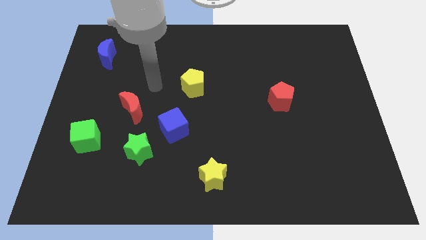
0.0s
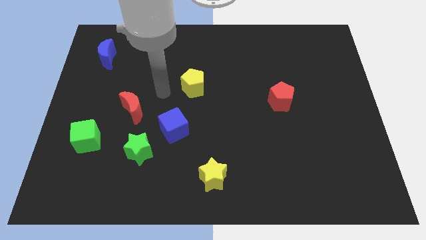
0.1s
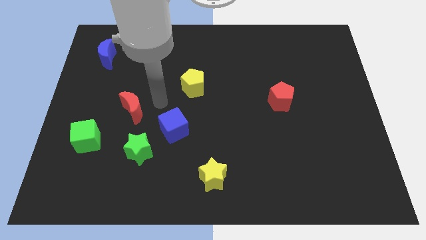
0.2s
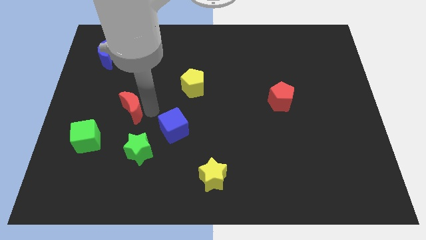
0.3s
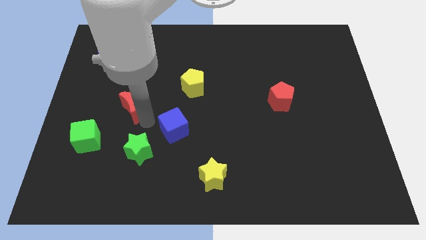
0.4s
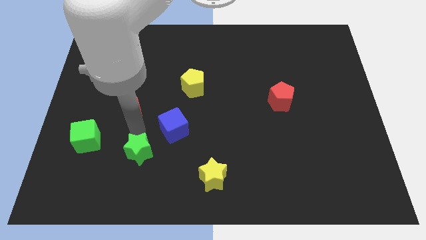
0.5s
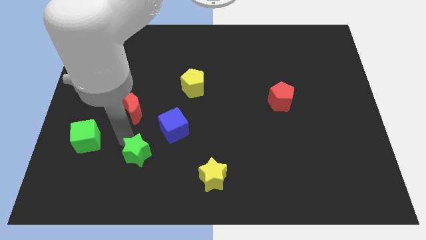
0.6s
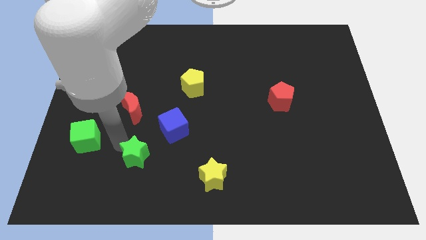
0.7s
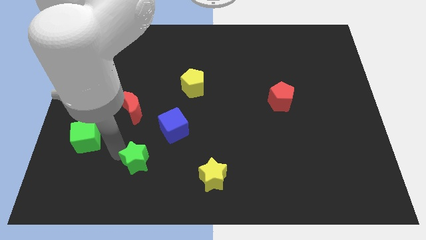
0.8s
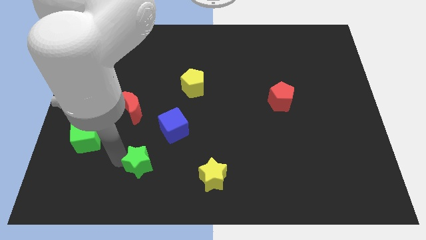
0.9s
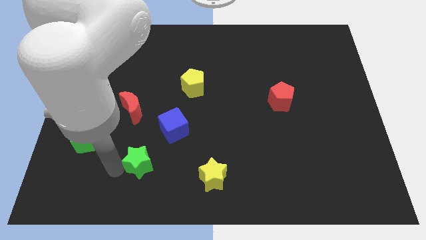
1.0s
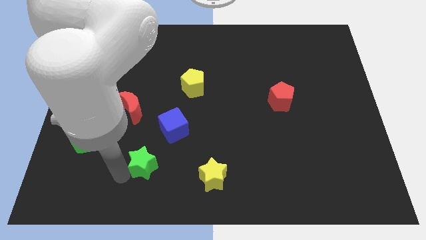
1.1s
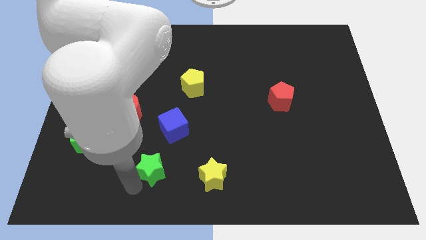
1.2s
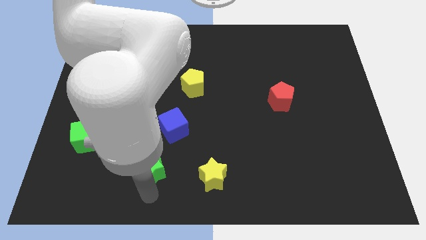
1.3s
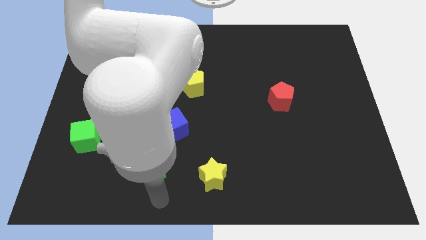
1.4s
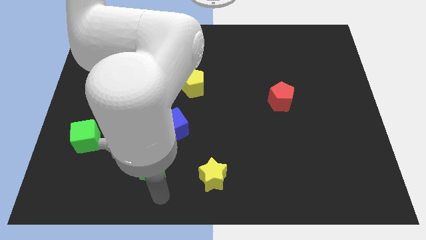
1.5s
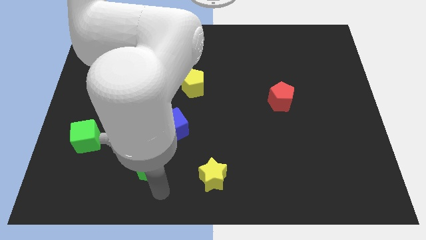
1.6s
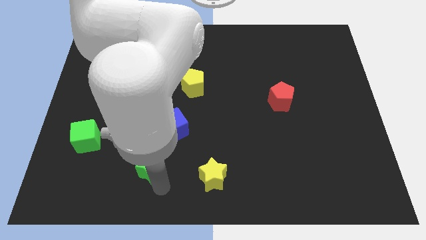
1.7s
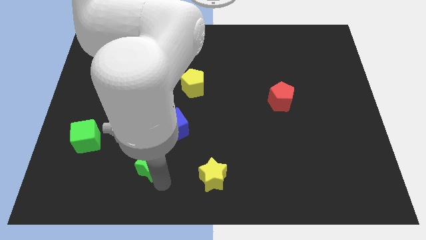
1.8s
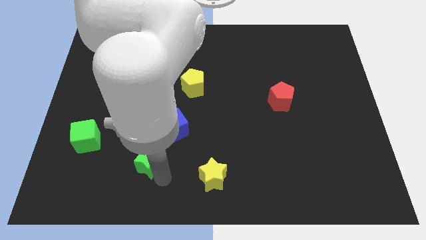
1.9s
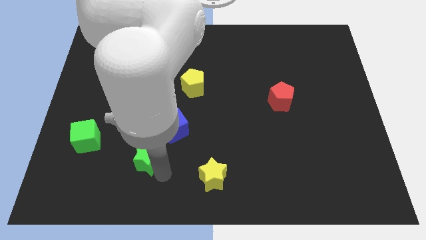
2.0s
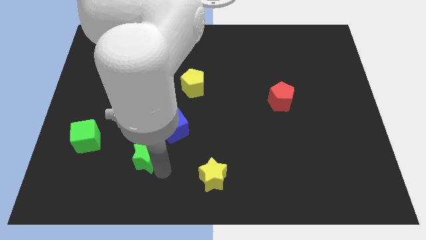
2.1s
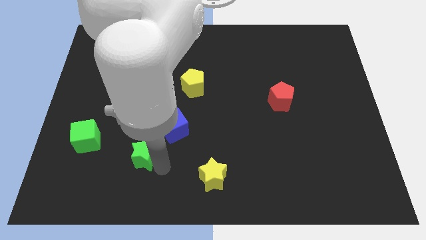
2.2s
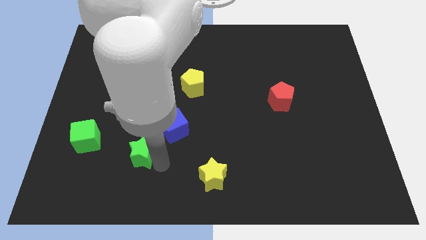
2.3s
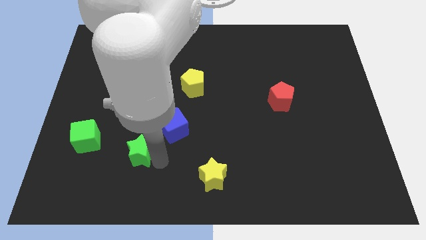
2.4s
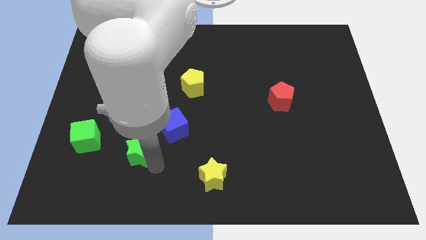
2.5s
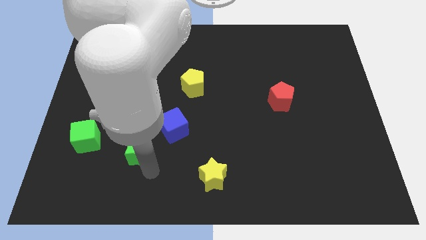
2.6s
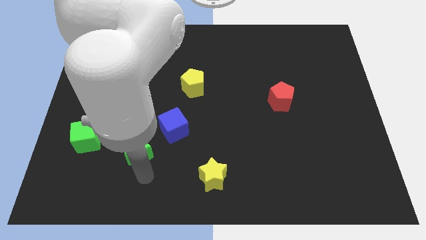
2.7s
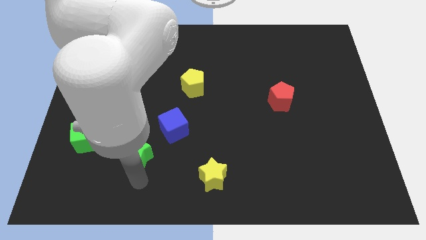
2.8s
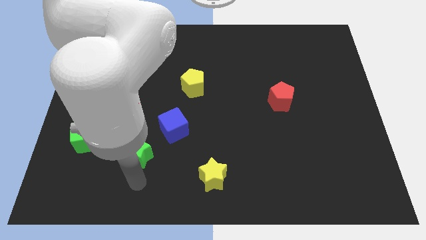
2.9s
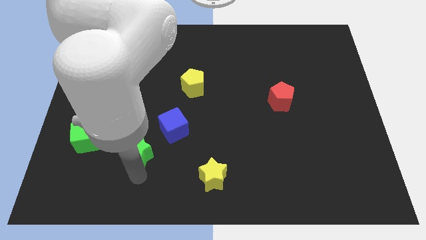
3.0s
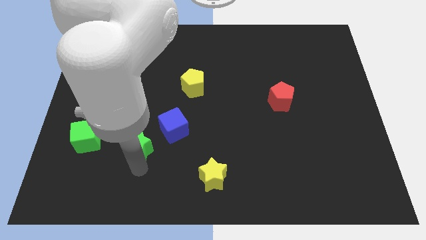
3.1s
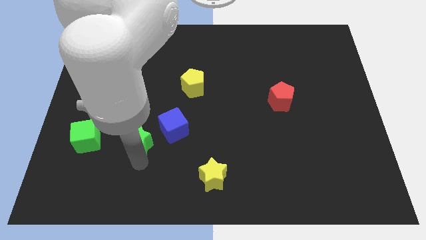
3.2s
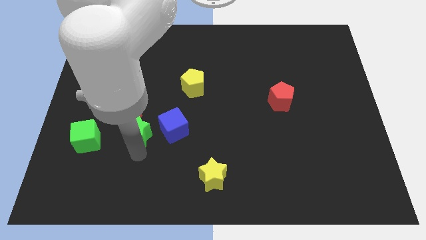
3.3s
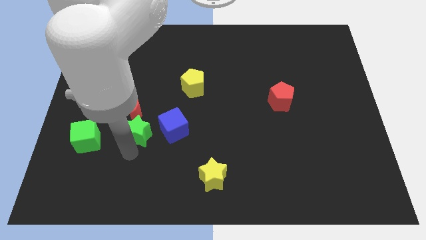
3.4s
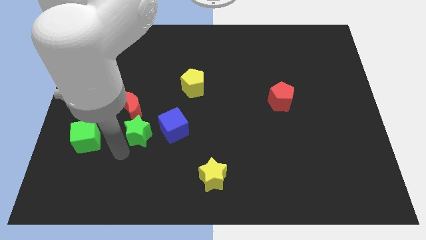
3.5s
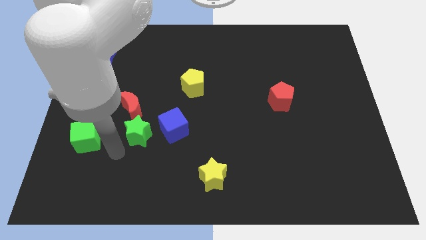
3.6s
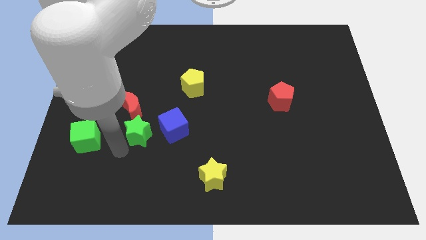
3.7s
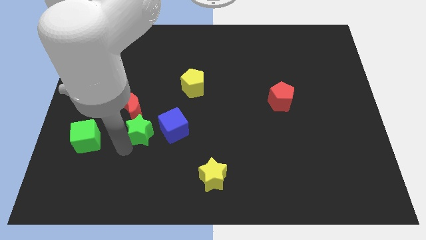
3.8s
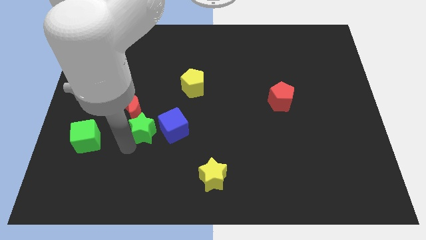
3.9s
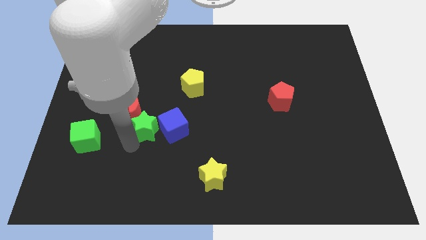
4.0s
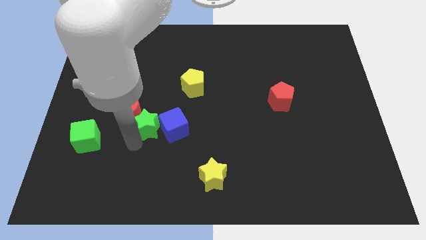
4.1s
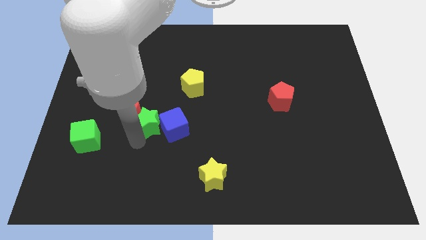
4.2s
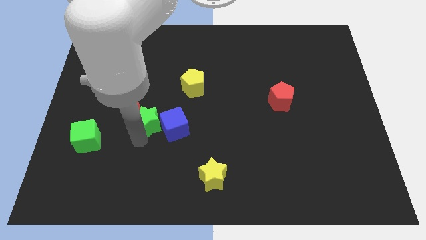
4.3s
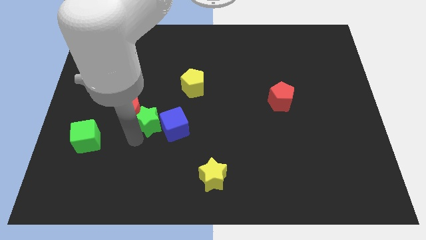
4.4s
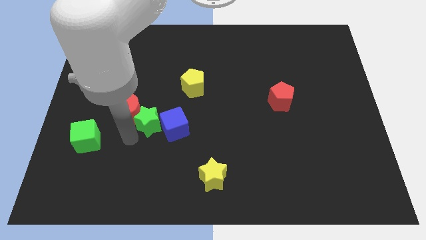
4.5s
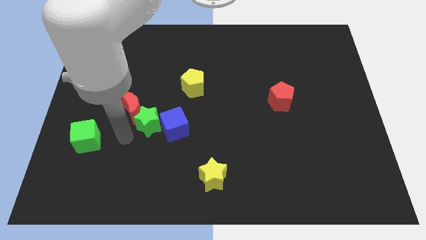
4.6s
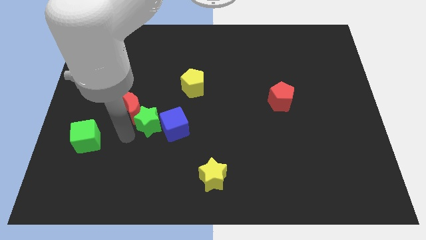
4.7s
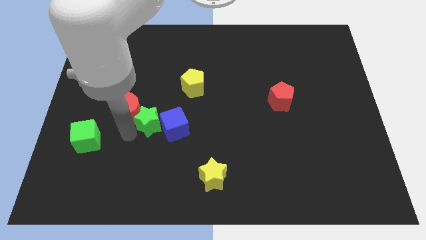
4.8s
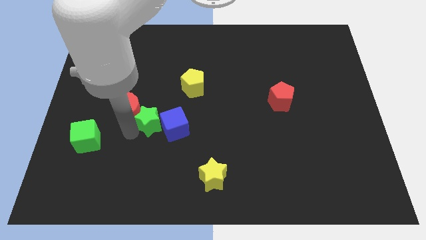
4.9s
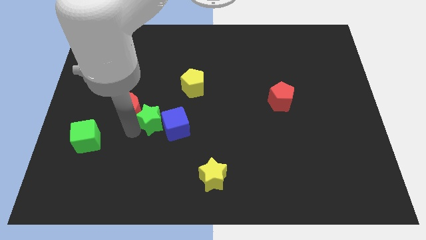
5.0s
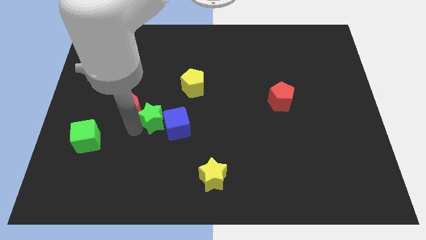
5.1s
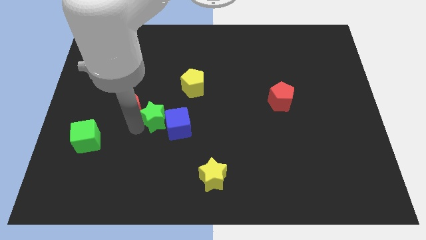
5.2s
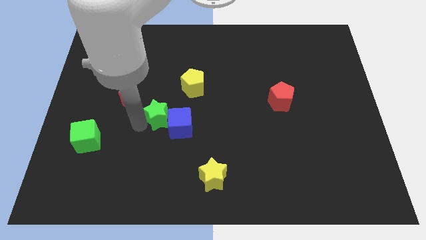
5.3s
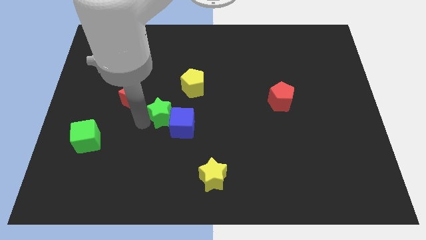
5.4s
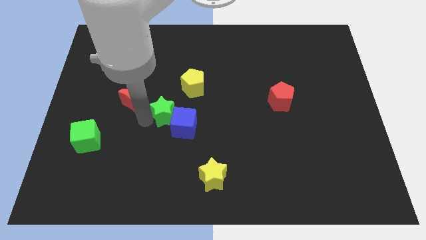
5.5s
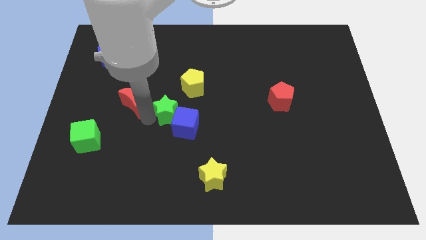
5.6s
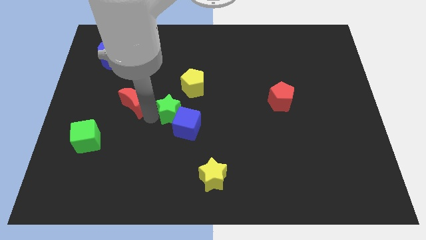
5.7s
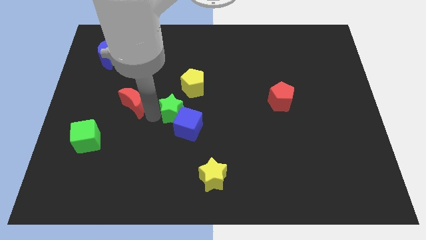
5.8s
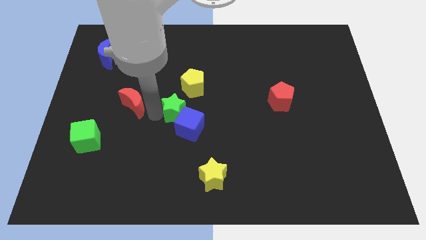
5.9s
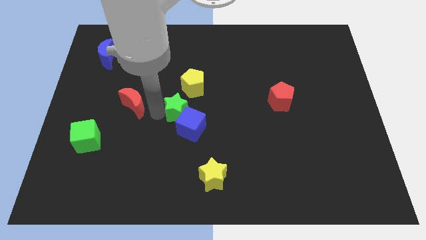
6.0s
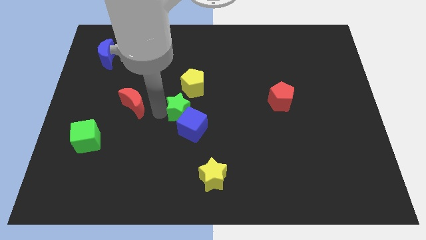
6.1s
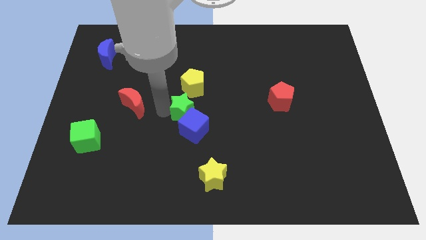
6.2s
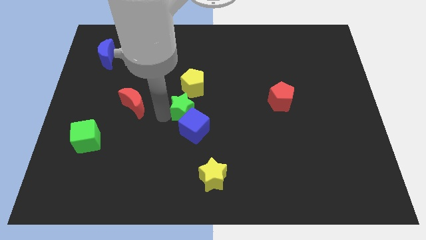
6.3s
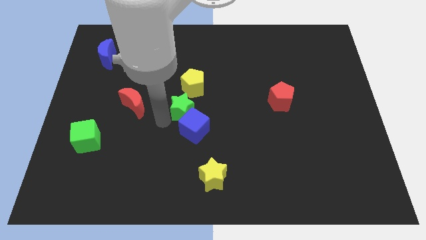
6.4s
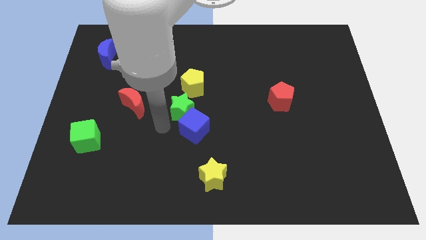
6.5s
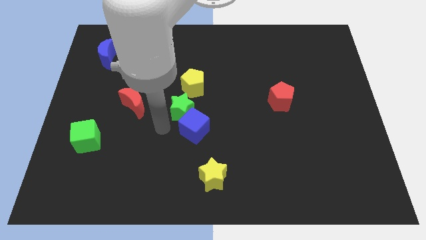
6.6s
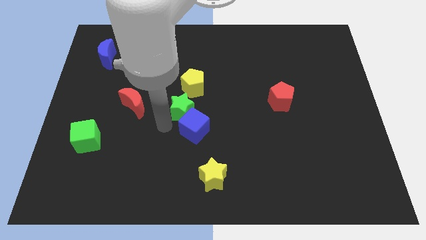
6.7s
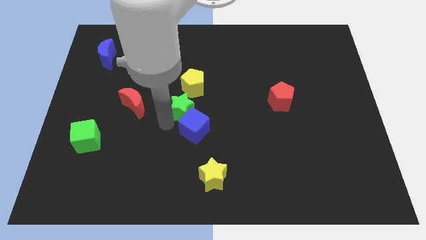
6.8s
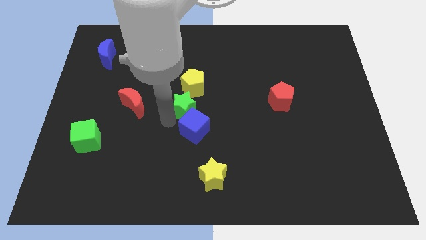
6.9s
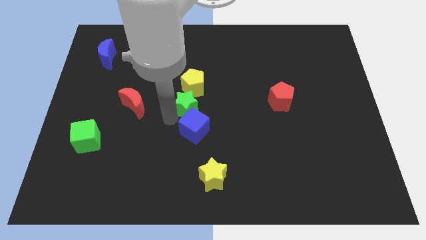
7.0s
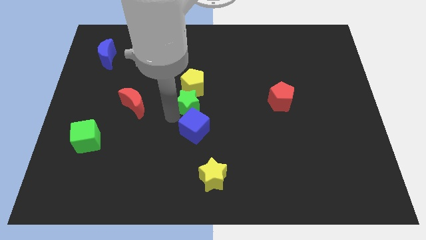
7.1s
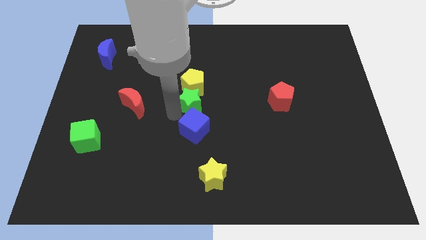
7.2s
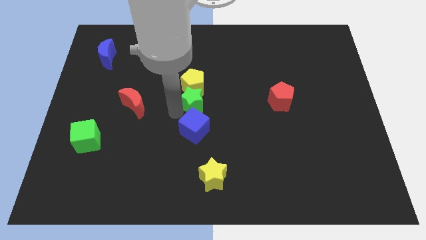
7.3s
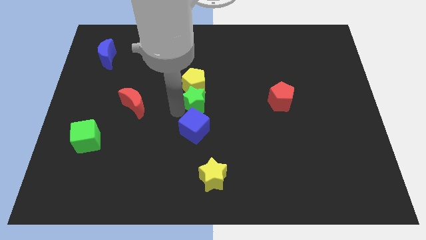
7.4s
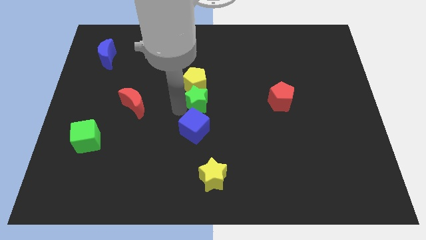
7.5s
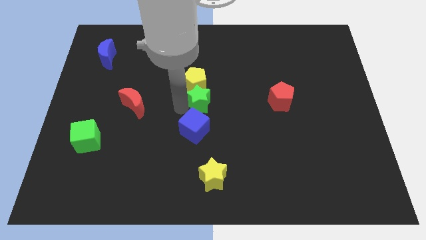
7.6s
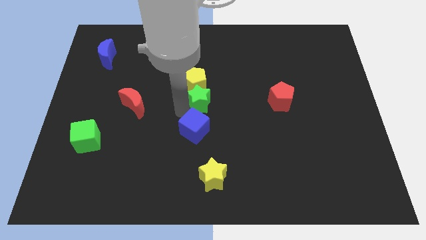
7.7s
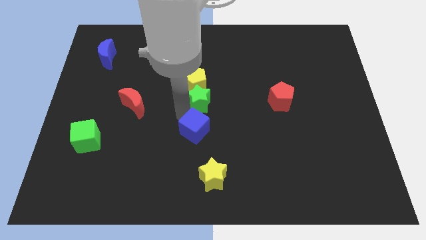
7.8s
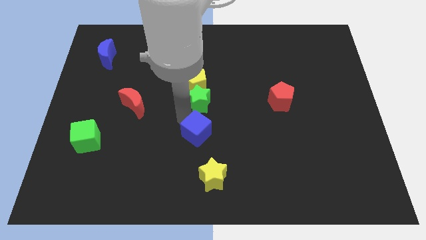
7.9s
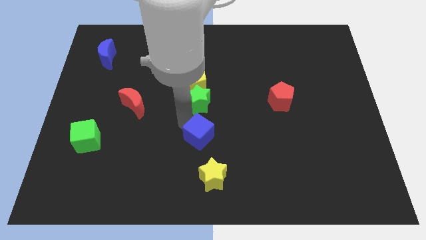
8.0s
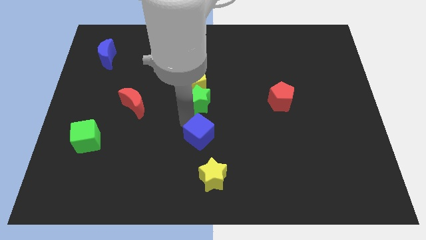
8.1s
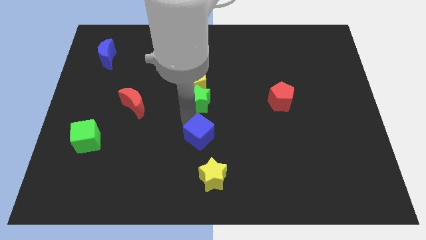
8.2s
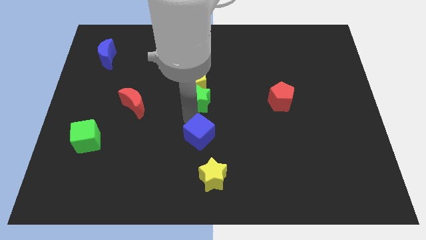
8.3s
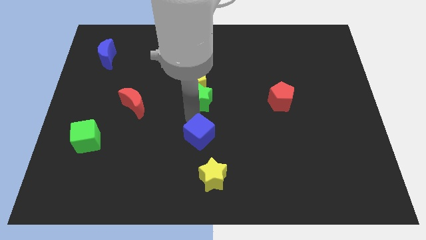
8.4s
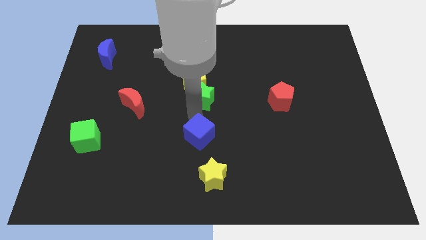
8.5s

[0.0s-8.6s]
push the green star up and then right
